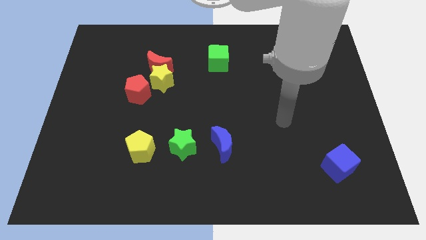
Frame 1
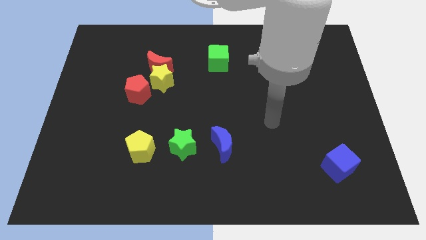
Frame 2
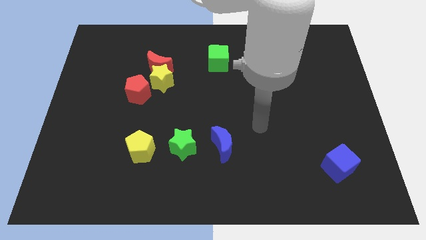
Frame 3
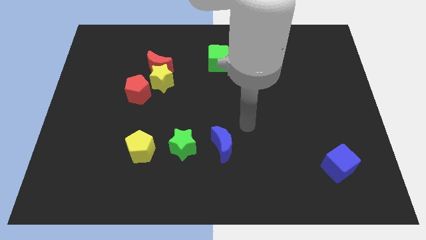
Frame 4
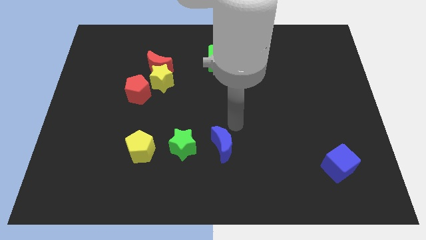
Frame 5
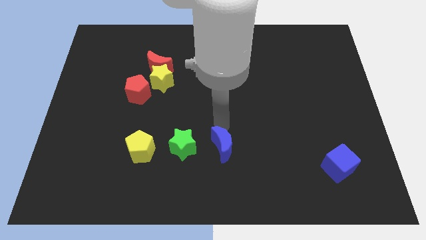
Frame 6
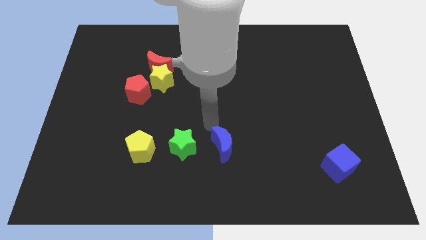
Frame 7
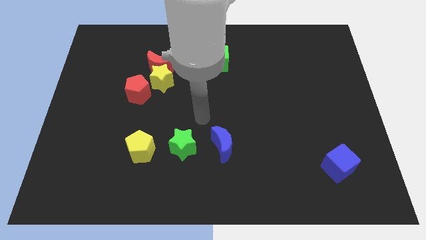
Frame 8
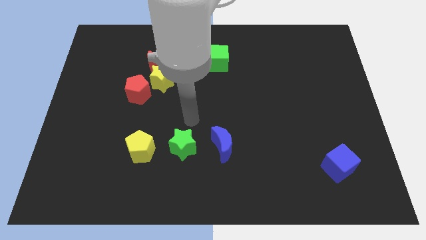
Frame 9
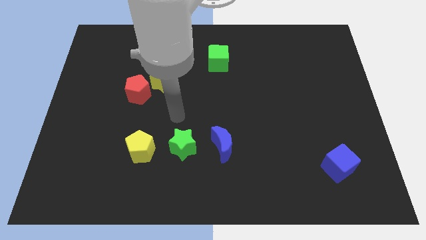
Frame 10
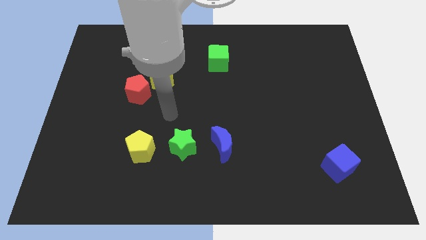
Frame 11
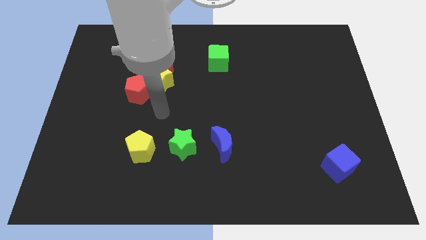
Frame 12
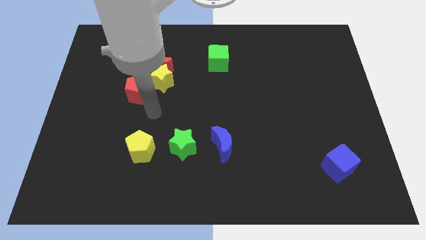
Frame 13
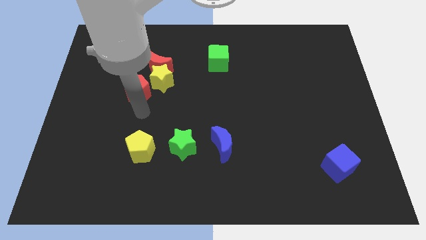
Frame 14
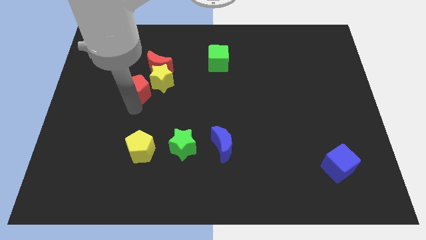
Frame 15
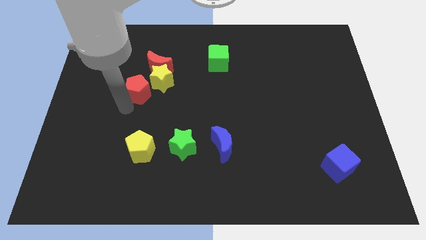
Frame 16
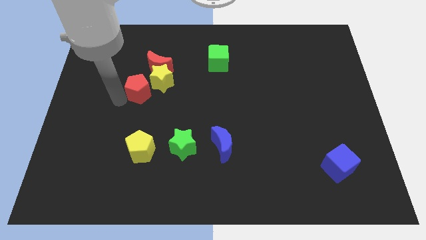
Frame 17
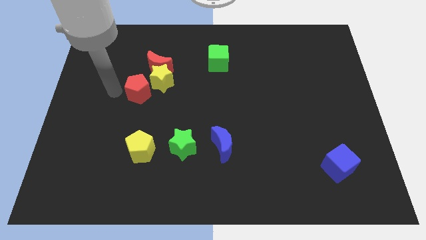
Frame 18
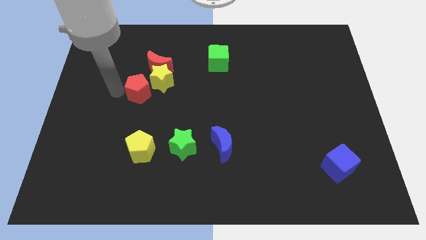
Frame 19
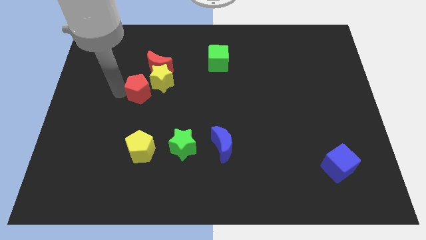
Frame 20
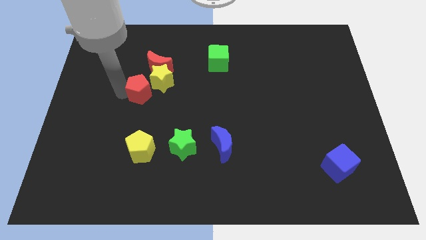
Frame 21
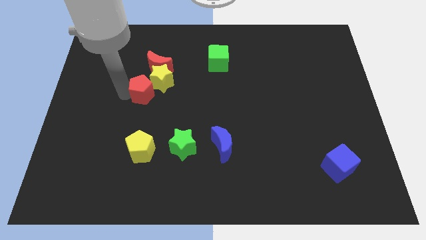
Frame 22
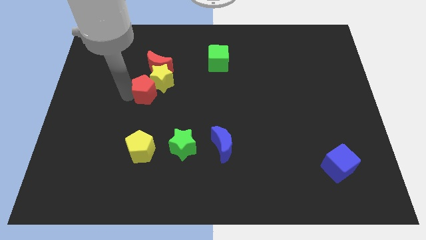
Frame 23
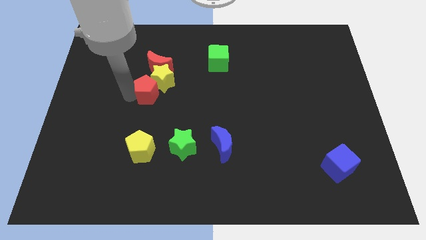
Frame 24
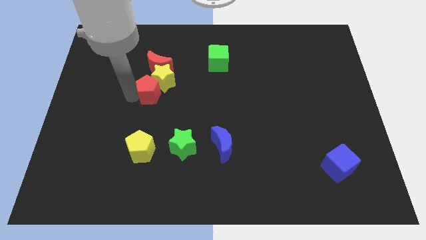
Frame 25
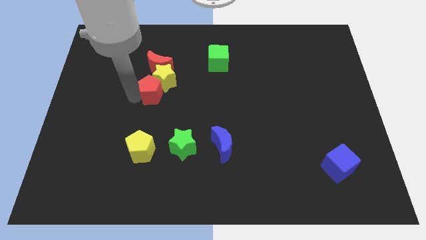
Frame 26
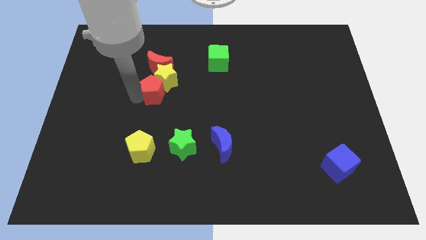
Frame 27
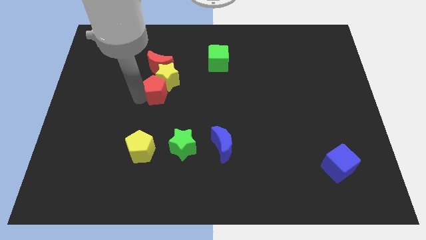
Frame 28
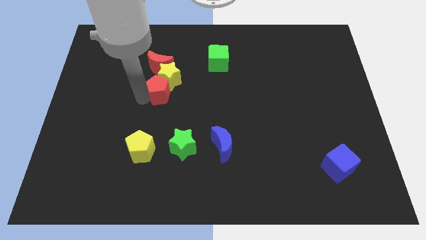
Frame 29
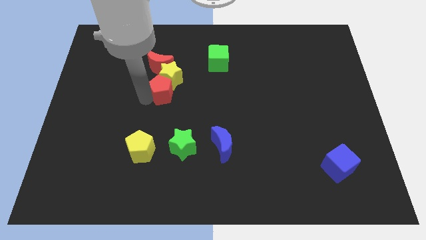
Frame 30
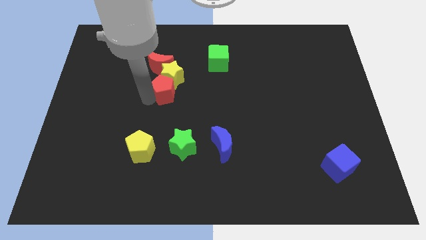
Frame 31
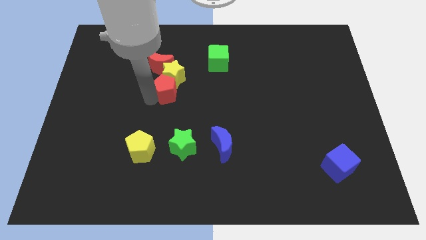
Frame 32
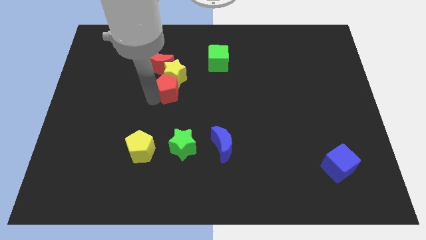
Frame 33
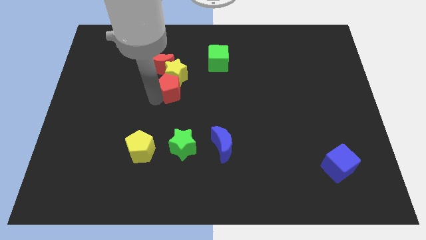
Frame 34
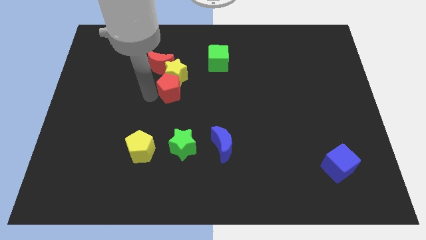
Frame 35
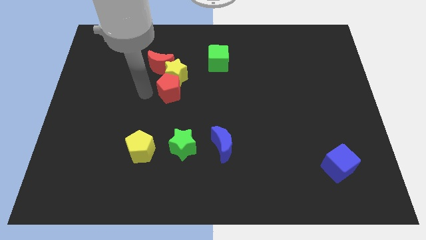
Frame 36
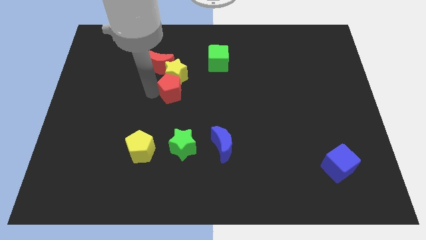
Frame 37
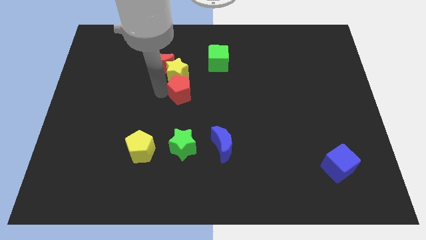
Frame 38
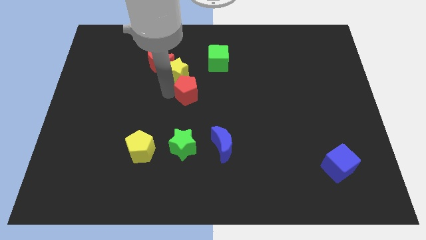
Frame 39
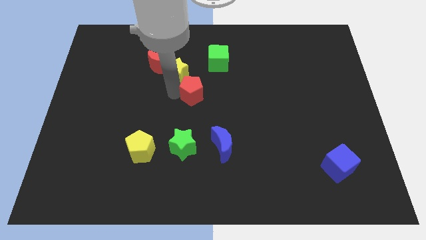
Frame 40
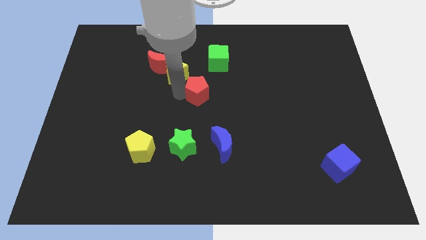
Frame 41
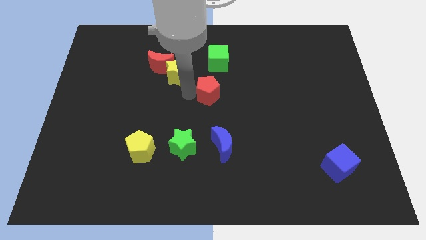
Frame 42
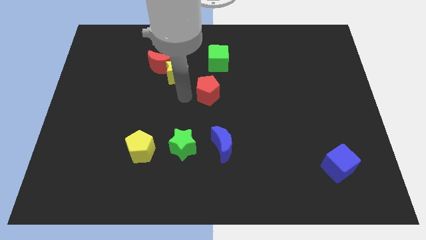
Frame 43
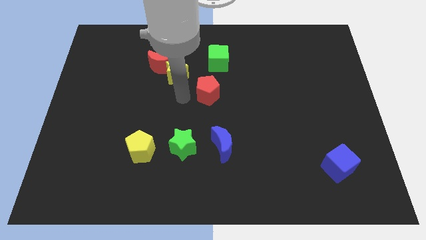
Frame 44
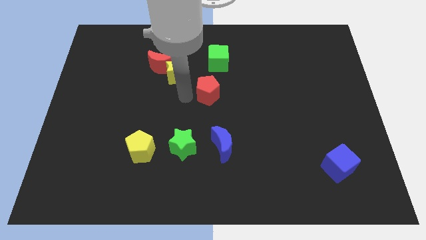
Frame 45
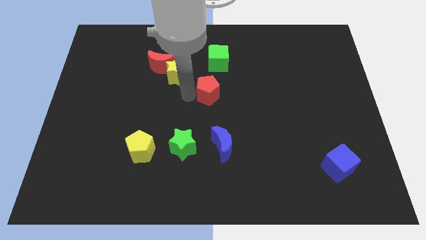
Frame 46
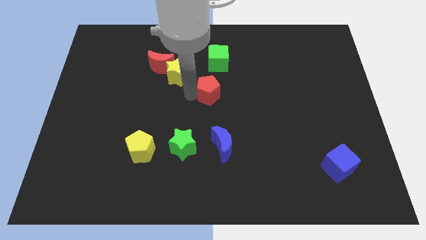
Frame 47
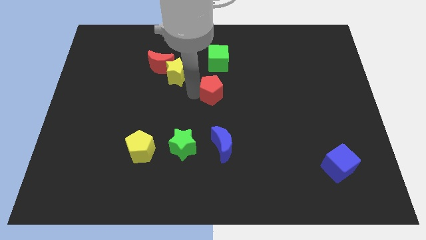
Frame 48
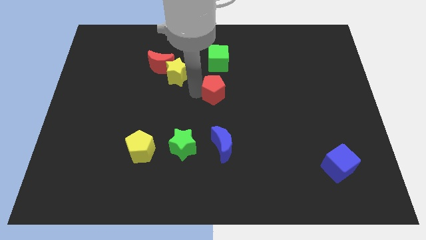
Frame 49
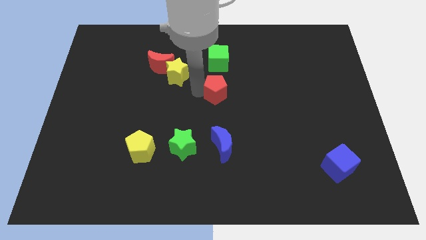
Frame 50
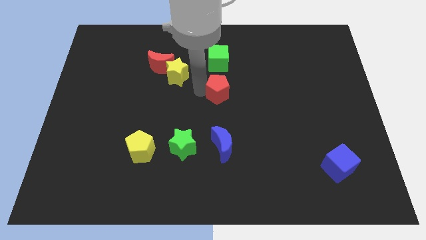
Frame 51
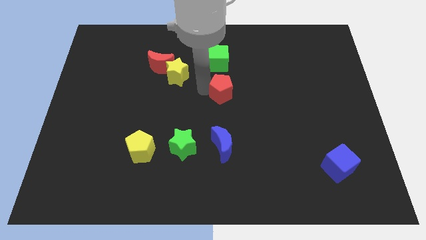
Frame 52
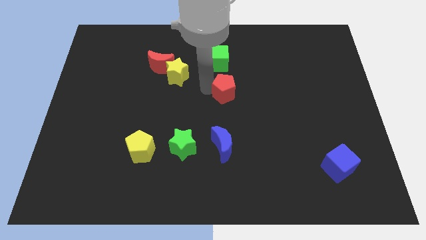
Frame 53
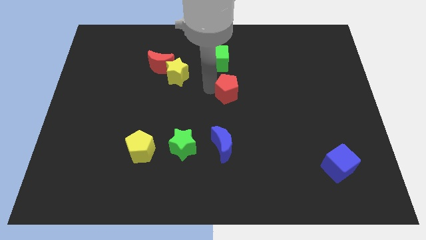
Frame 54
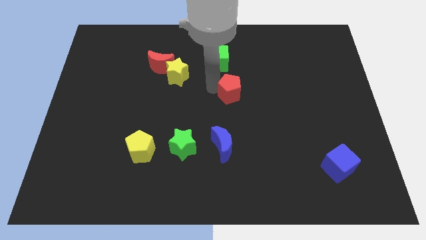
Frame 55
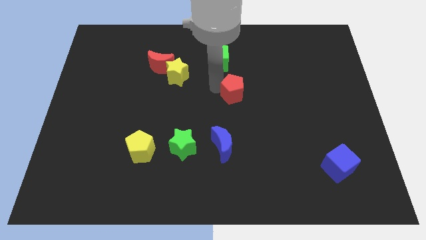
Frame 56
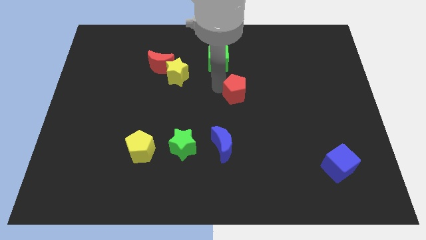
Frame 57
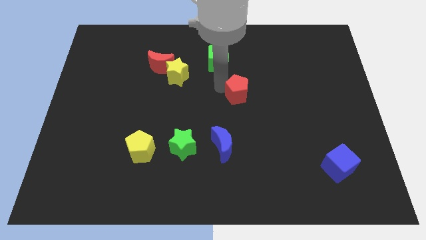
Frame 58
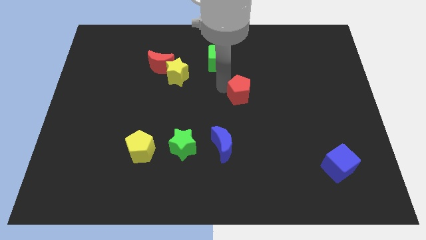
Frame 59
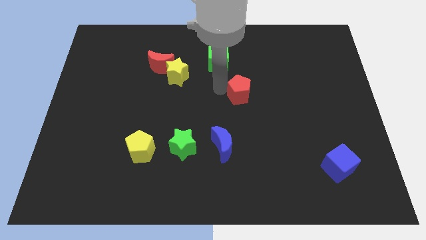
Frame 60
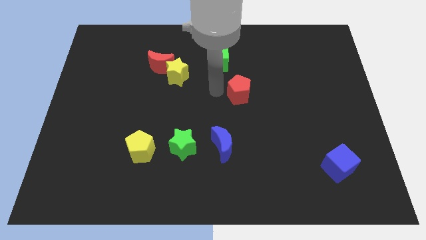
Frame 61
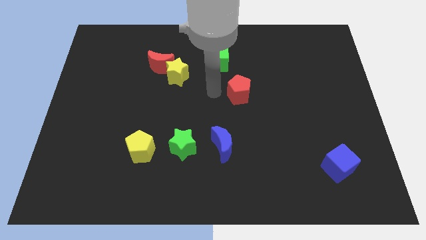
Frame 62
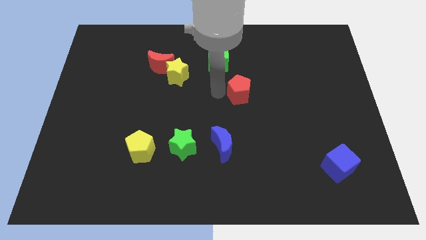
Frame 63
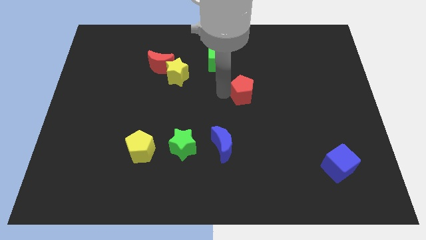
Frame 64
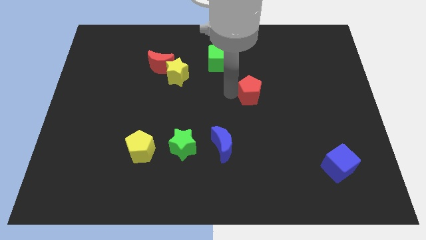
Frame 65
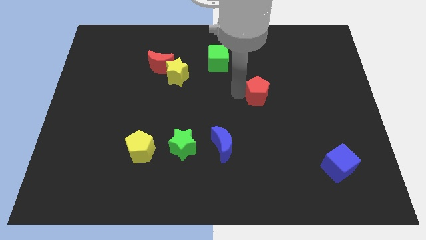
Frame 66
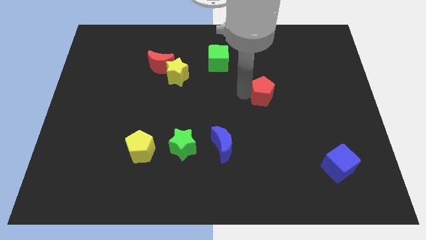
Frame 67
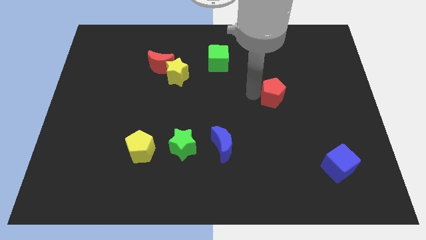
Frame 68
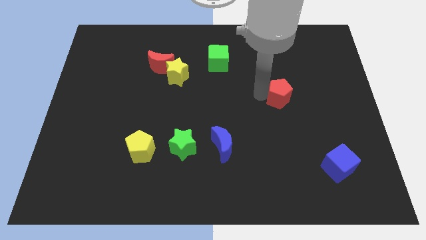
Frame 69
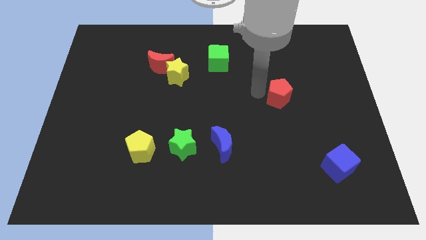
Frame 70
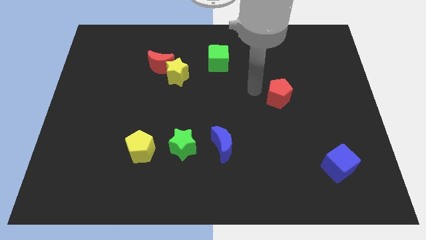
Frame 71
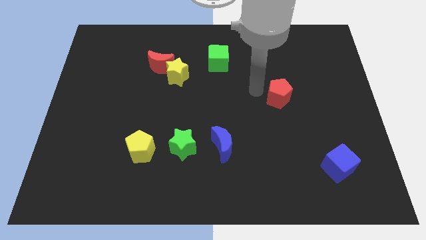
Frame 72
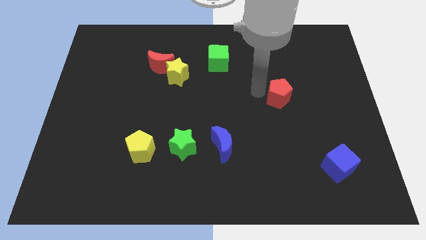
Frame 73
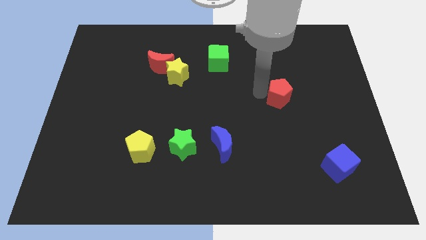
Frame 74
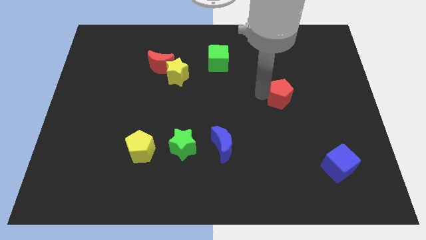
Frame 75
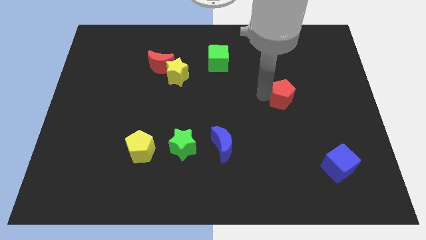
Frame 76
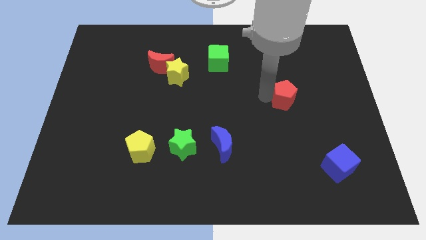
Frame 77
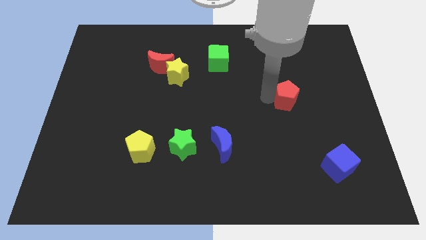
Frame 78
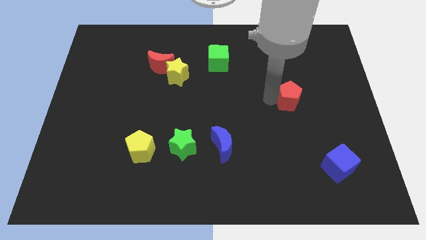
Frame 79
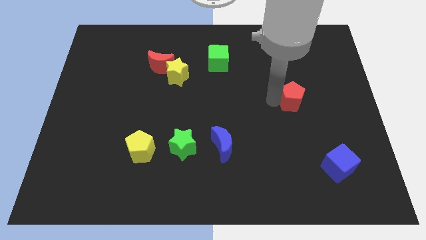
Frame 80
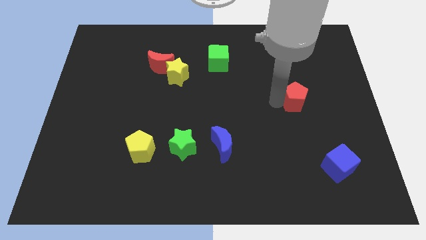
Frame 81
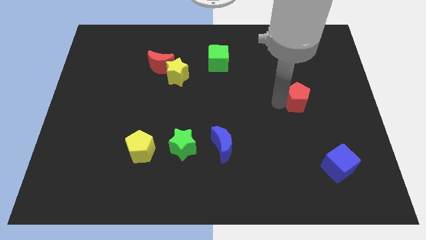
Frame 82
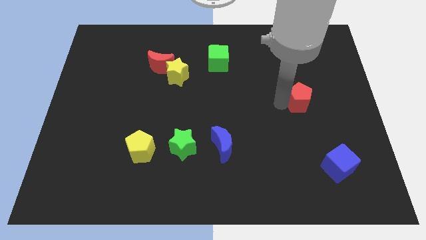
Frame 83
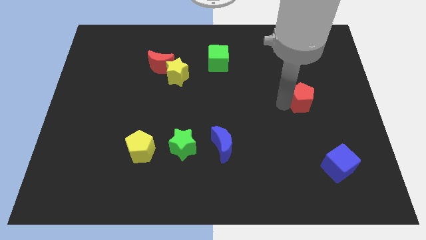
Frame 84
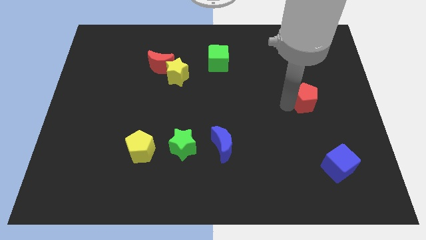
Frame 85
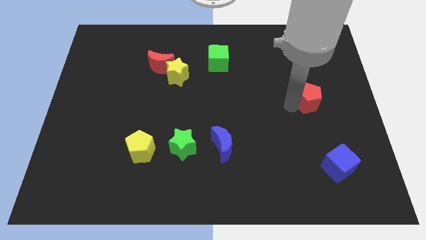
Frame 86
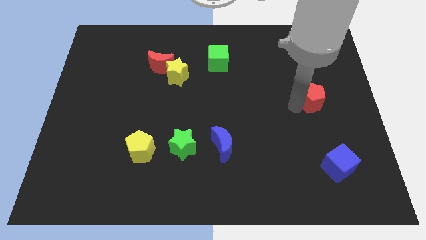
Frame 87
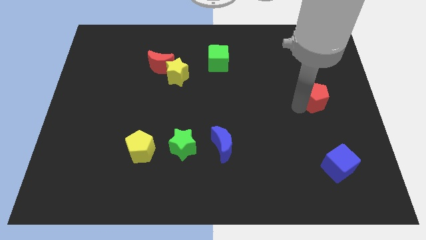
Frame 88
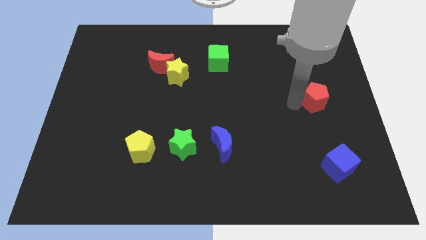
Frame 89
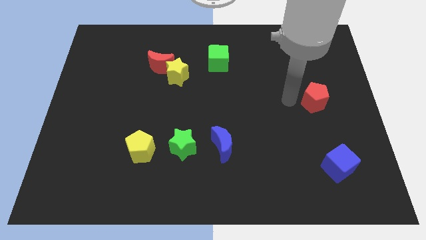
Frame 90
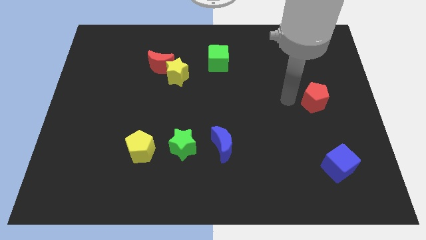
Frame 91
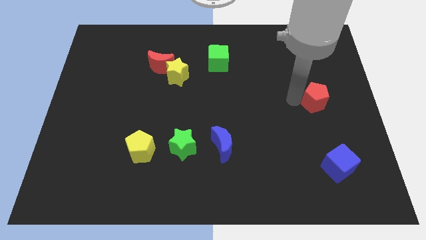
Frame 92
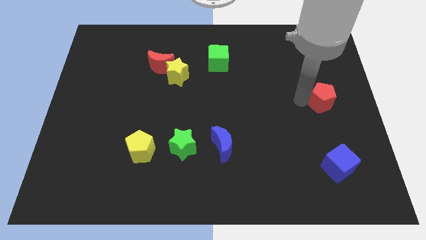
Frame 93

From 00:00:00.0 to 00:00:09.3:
push the red pentagon to the right side of the board
